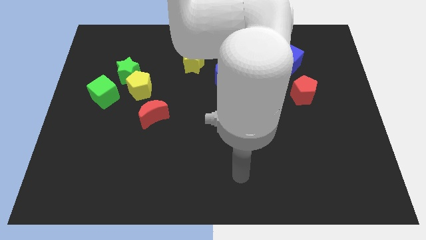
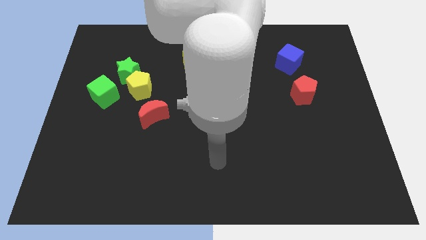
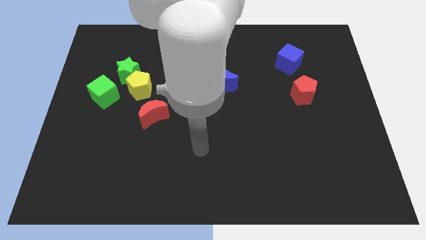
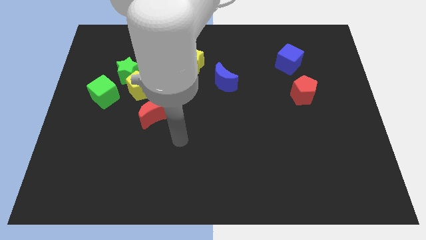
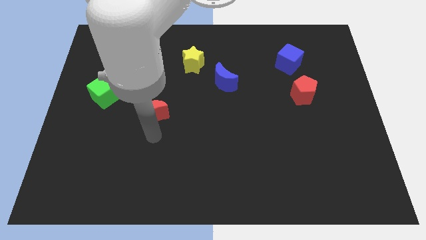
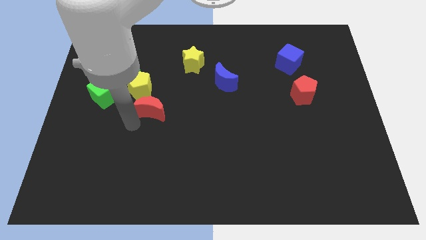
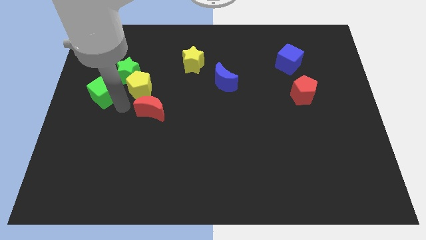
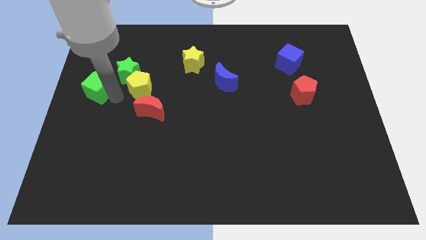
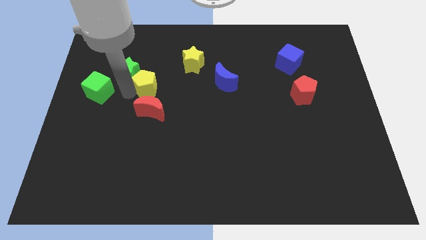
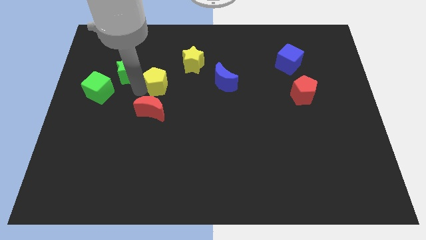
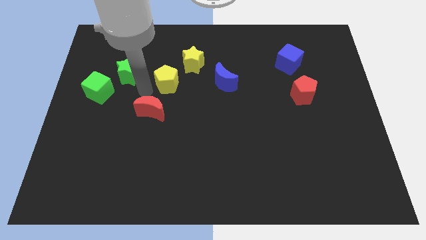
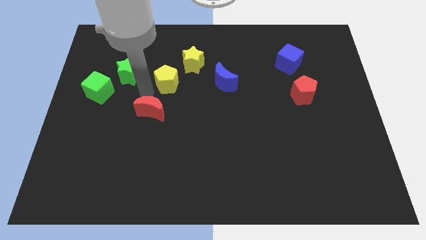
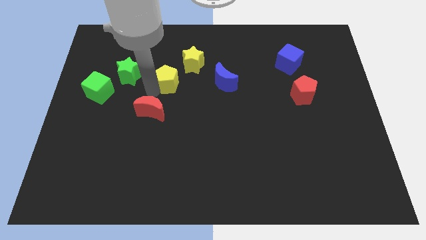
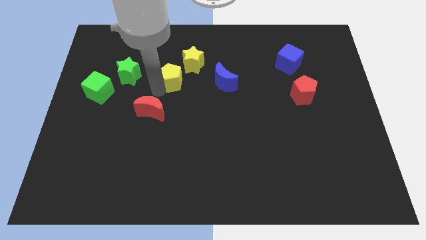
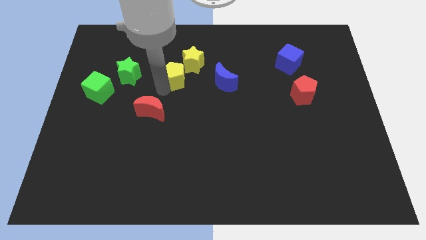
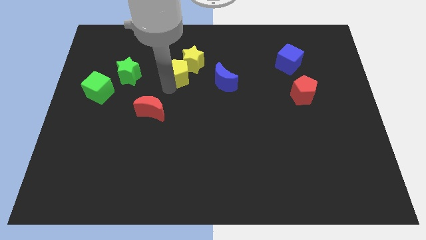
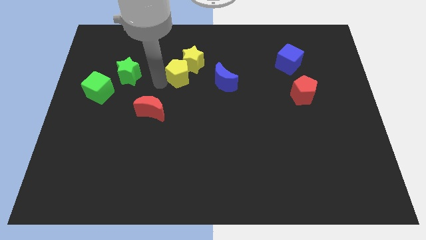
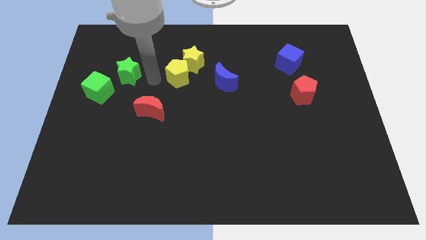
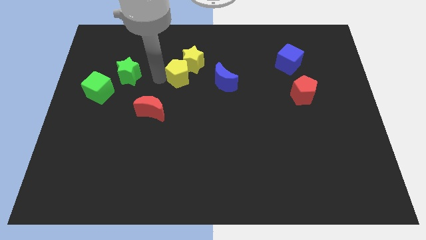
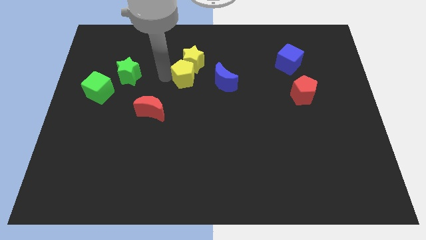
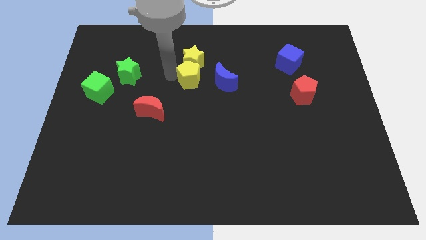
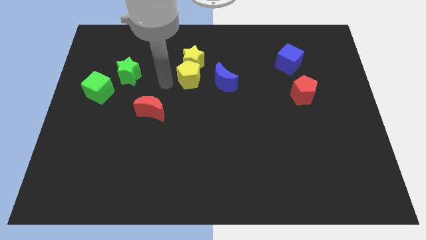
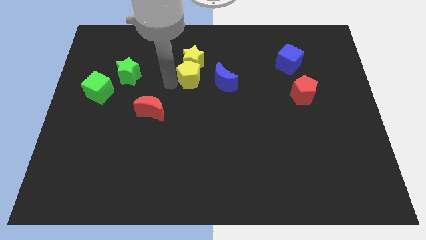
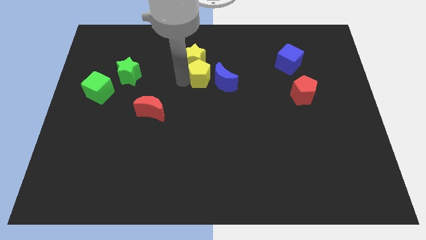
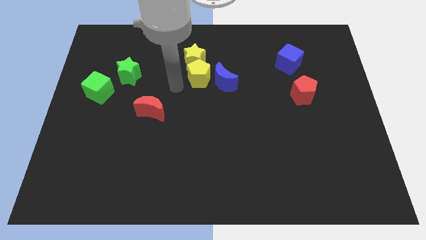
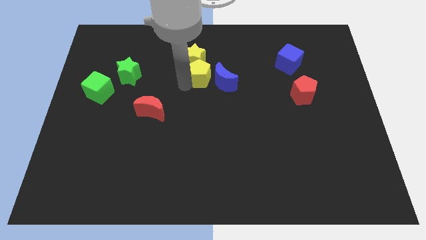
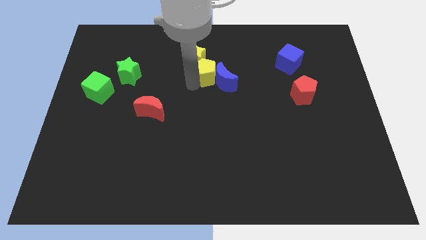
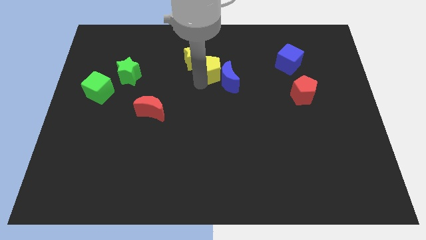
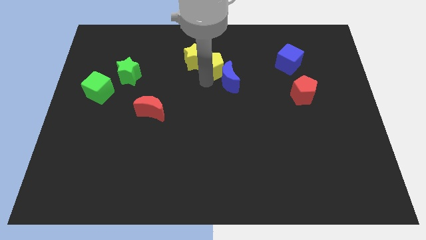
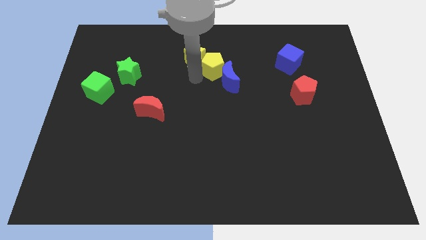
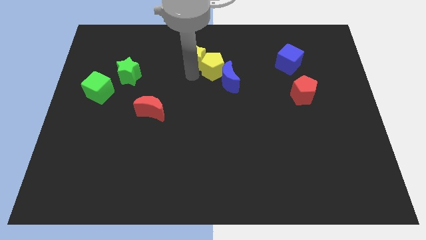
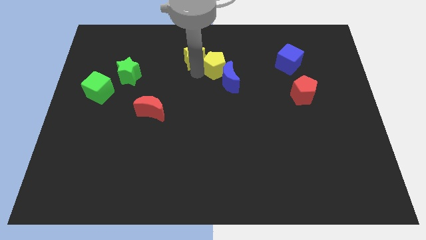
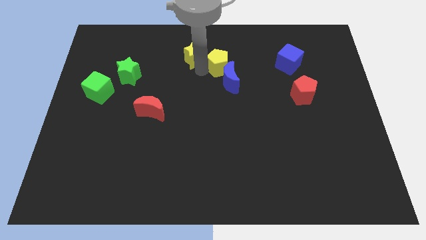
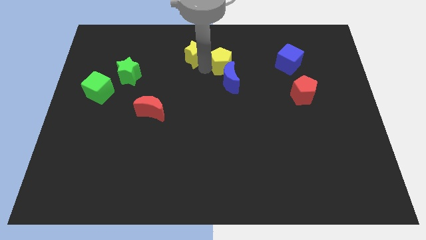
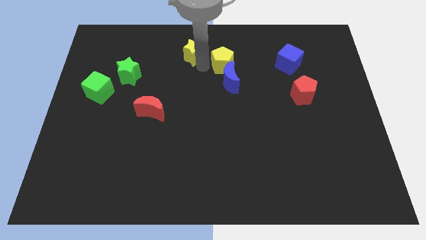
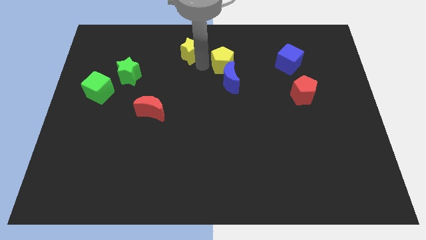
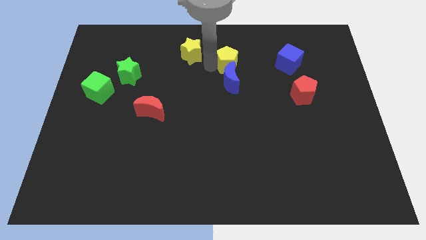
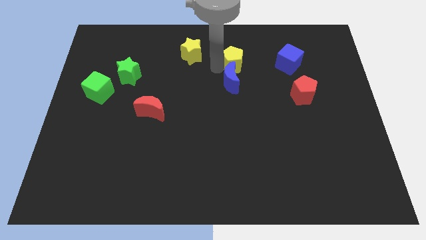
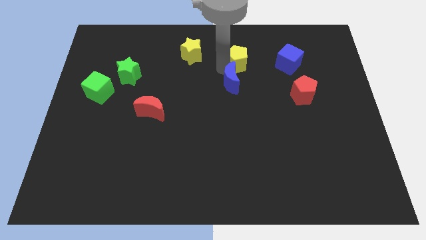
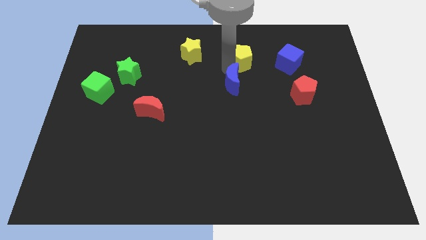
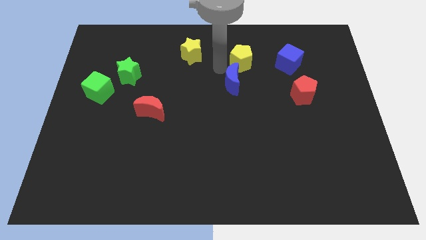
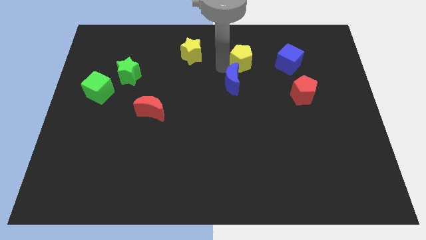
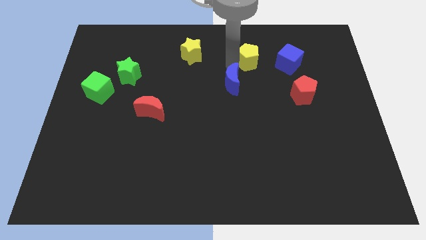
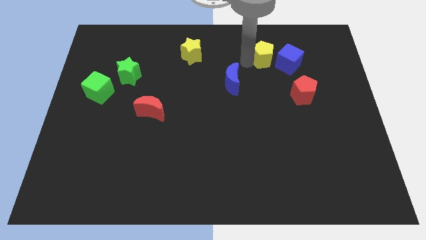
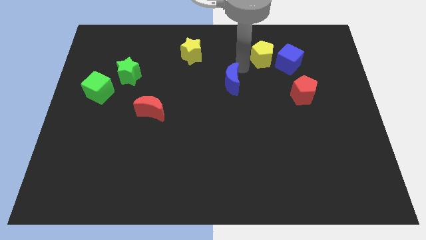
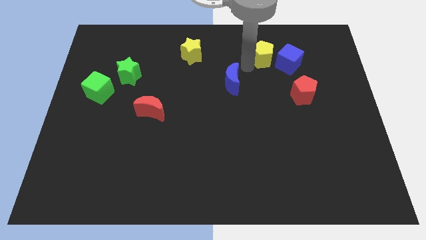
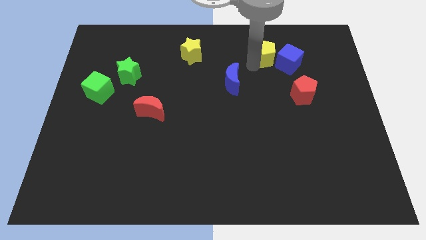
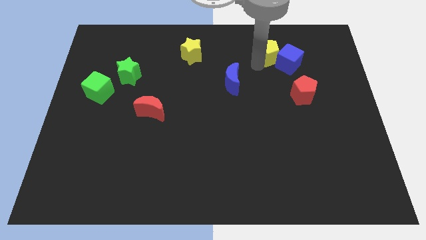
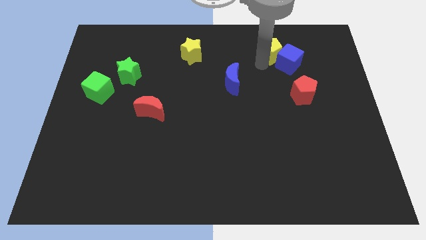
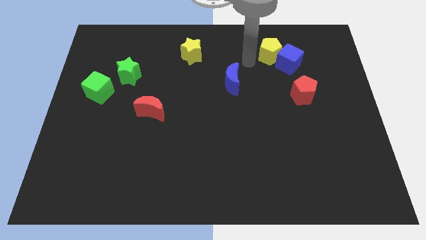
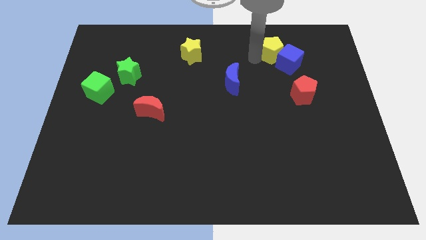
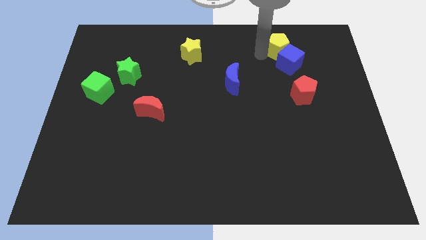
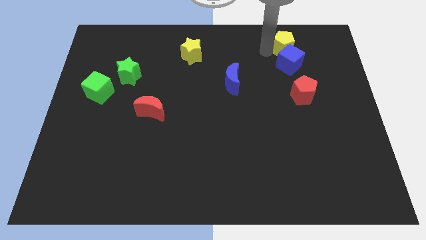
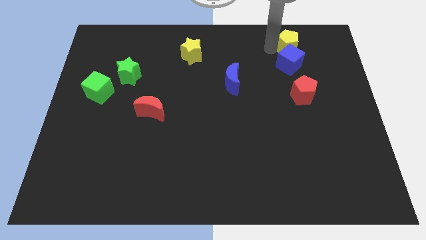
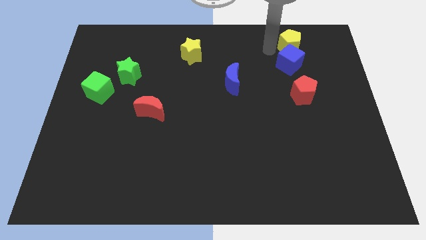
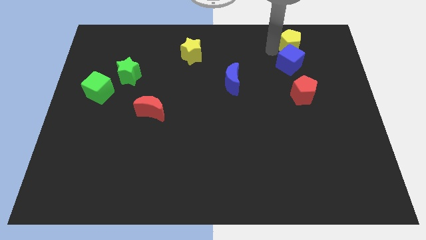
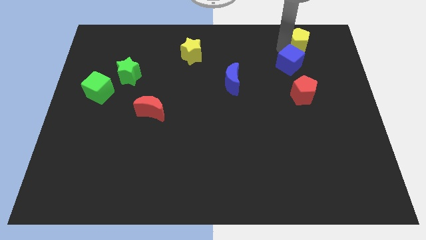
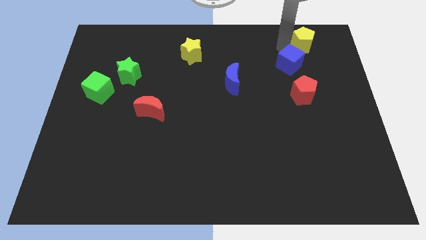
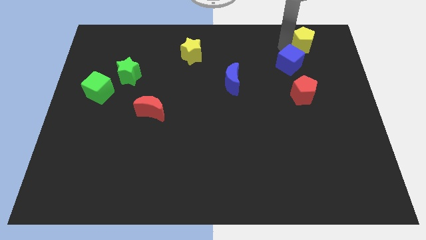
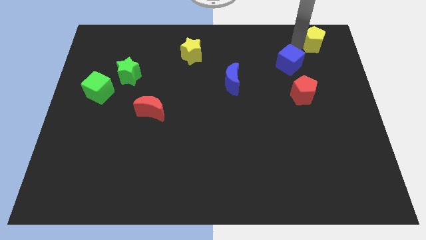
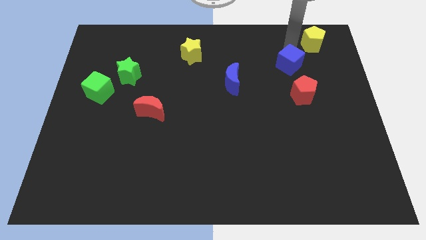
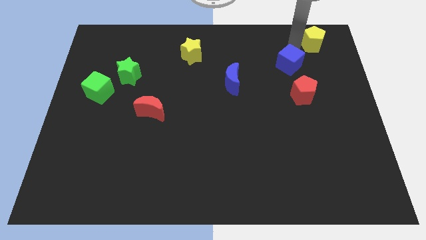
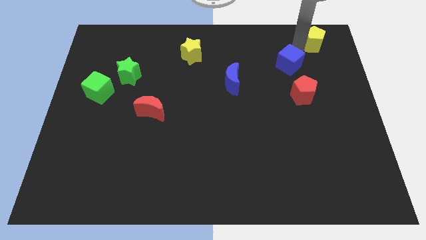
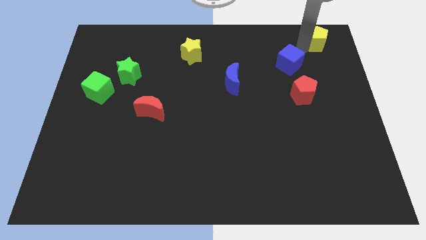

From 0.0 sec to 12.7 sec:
slide the yellow pentagon to the top right of the board
